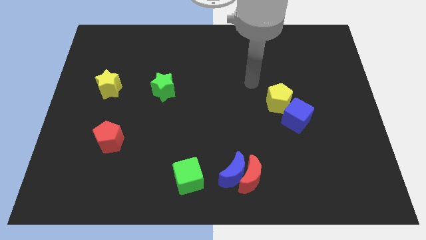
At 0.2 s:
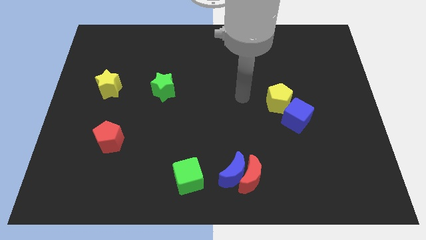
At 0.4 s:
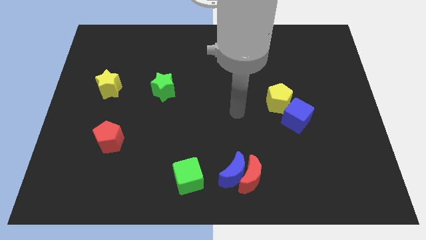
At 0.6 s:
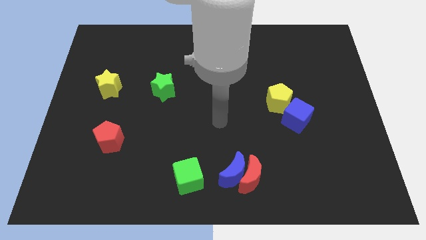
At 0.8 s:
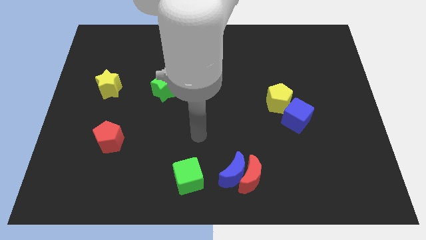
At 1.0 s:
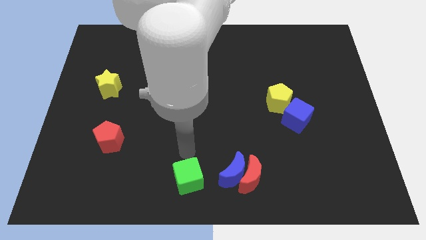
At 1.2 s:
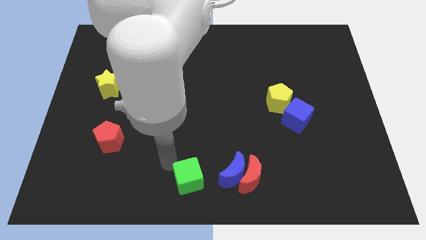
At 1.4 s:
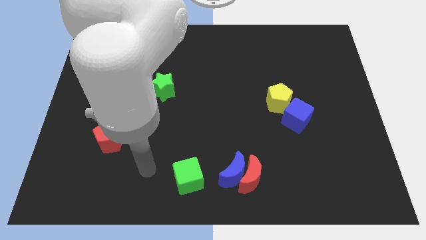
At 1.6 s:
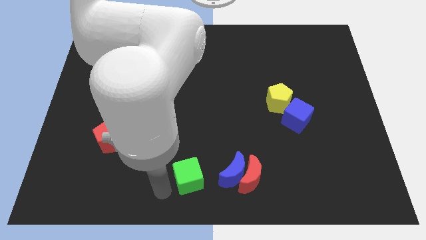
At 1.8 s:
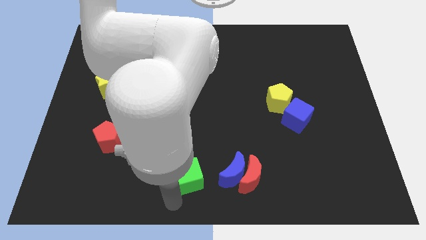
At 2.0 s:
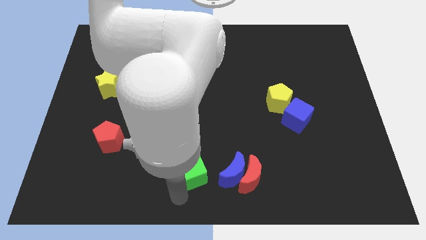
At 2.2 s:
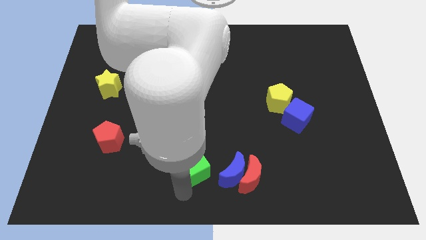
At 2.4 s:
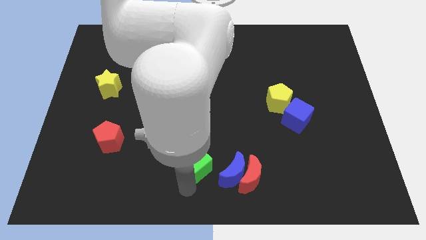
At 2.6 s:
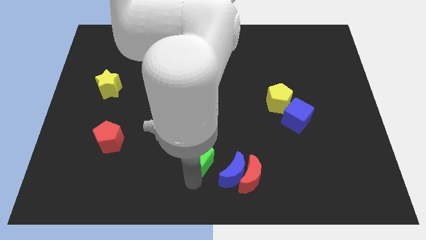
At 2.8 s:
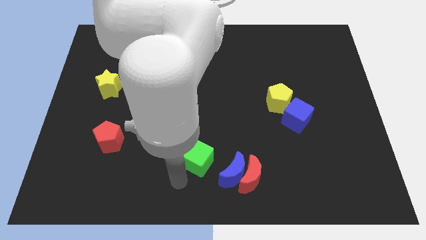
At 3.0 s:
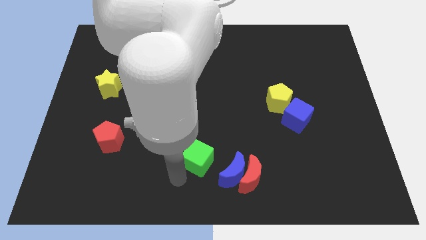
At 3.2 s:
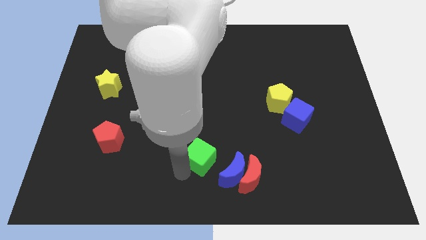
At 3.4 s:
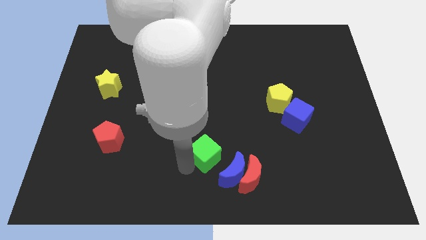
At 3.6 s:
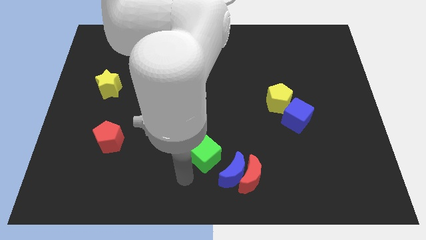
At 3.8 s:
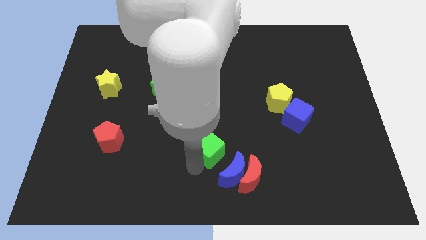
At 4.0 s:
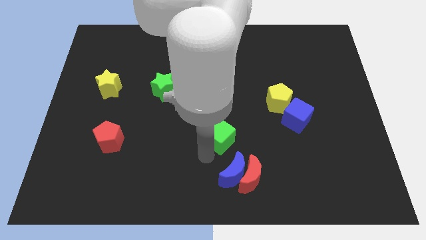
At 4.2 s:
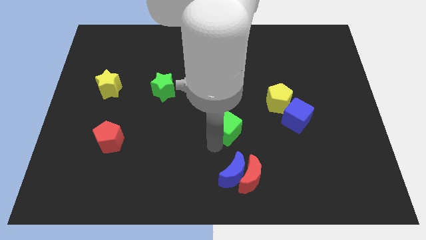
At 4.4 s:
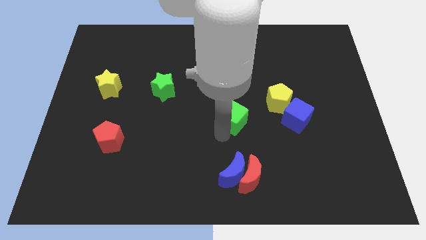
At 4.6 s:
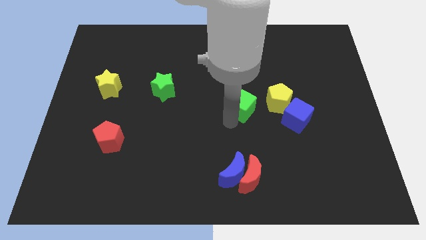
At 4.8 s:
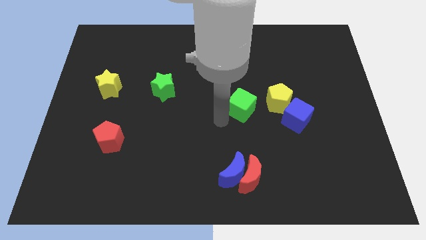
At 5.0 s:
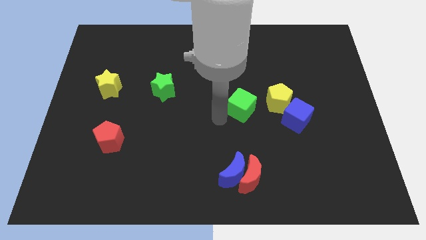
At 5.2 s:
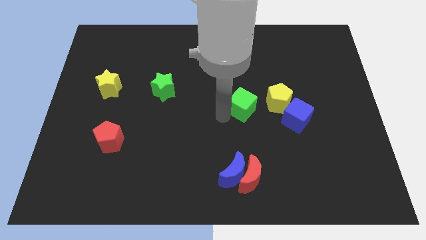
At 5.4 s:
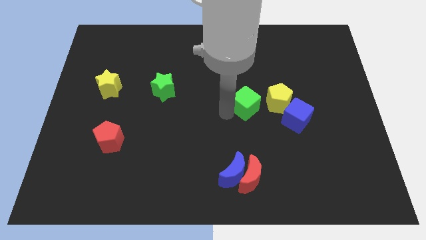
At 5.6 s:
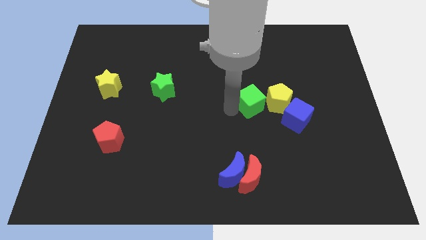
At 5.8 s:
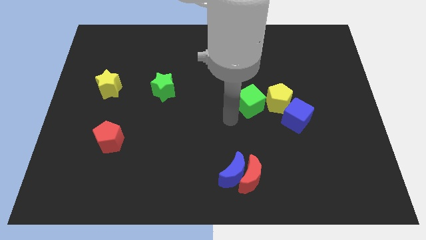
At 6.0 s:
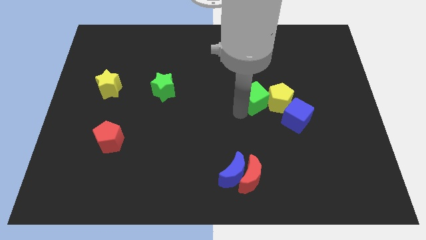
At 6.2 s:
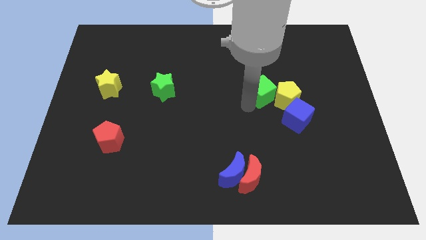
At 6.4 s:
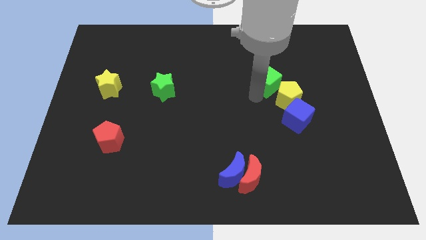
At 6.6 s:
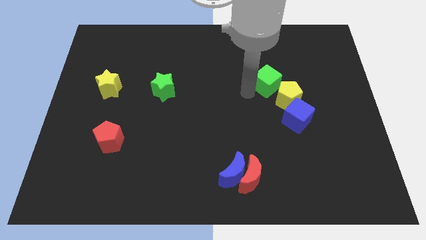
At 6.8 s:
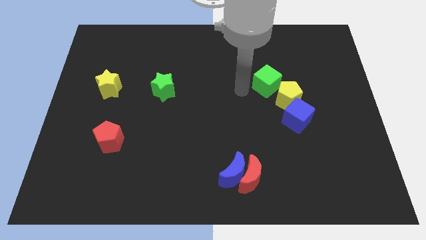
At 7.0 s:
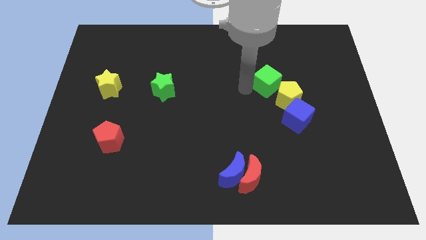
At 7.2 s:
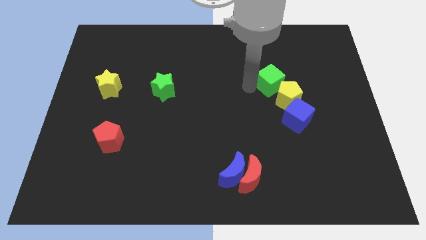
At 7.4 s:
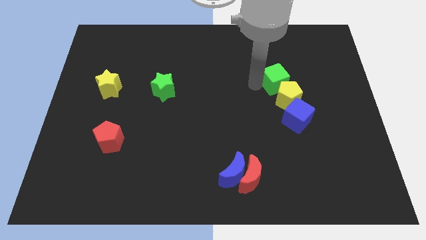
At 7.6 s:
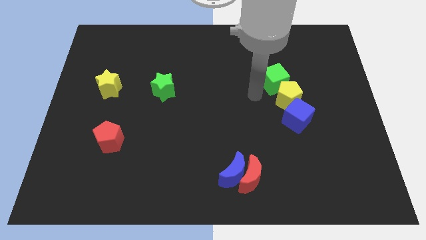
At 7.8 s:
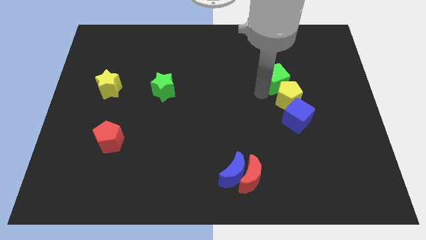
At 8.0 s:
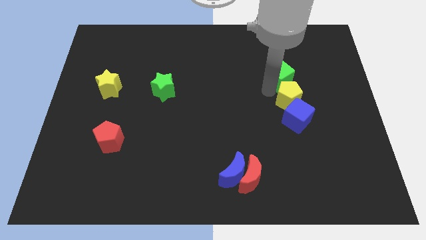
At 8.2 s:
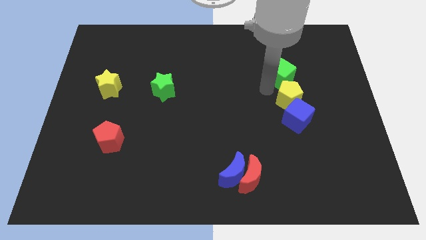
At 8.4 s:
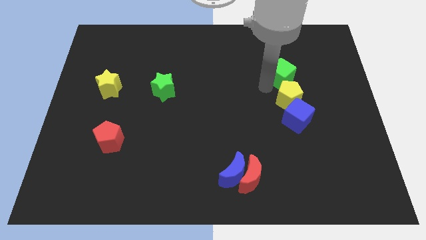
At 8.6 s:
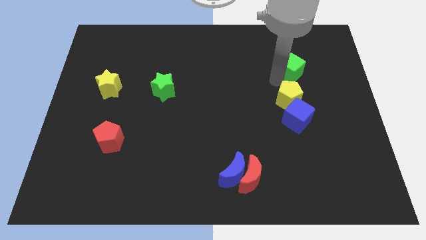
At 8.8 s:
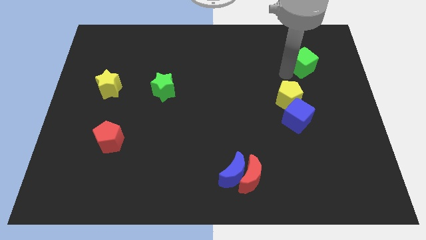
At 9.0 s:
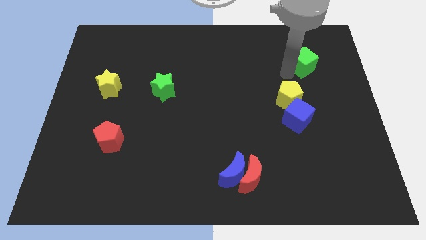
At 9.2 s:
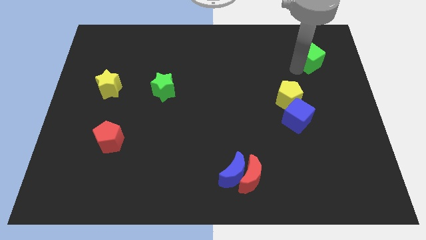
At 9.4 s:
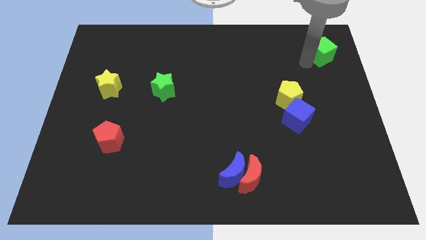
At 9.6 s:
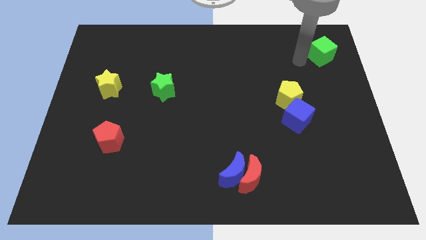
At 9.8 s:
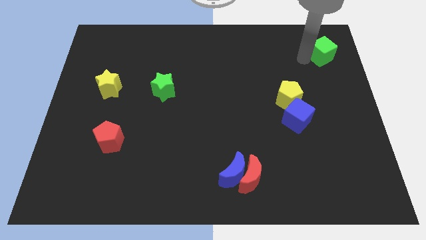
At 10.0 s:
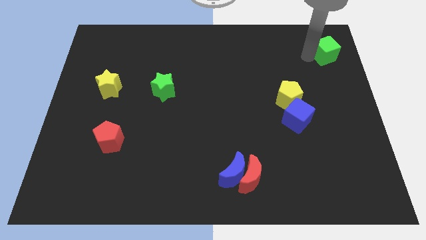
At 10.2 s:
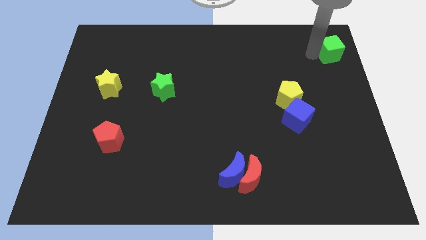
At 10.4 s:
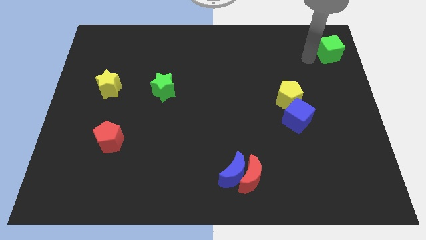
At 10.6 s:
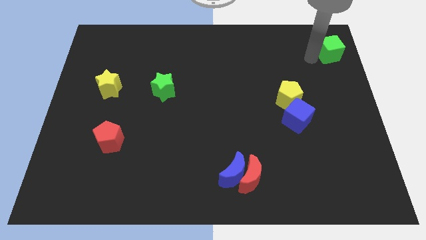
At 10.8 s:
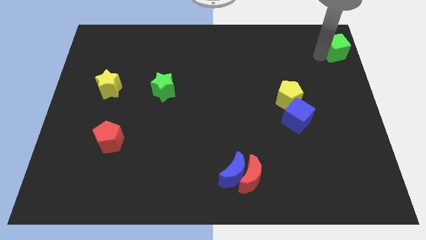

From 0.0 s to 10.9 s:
put the green cube to the top right of the board

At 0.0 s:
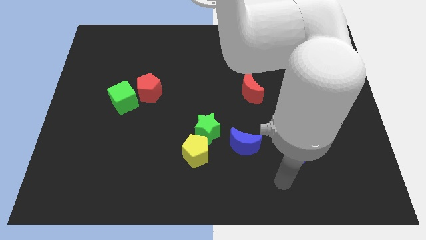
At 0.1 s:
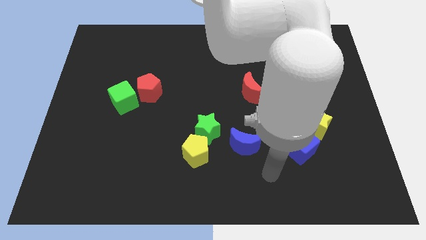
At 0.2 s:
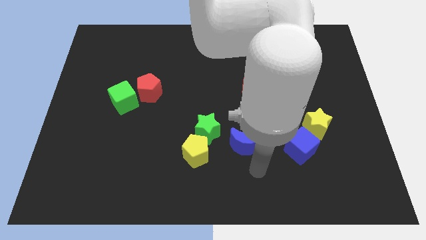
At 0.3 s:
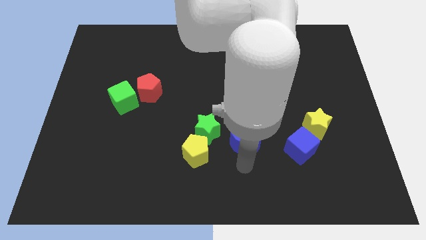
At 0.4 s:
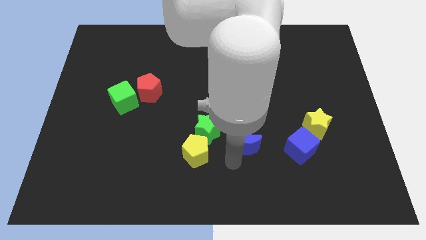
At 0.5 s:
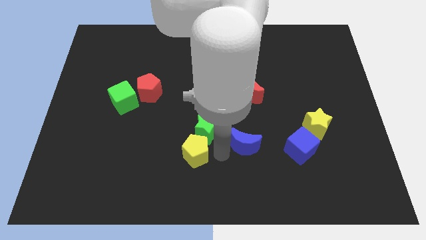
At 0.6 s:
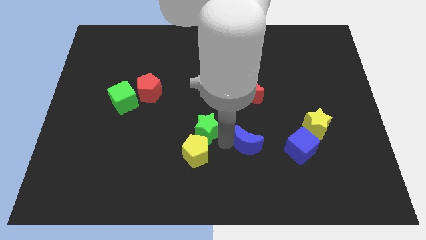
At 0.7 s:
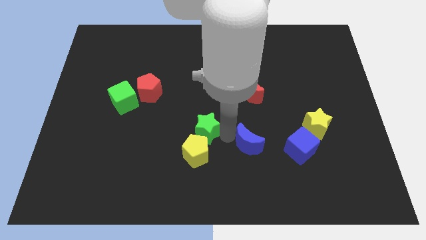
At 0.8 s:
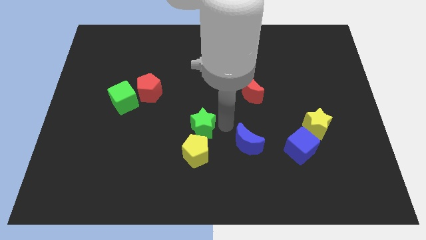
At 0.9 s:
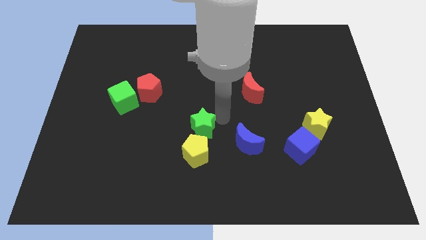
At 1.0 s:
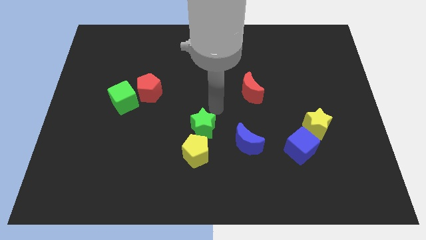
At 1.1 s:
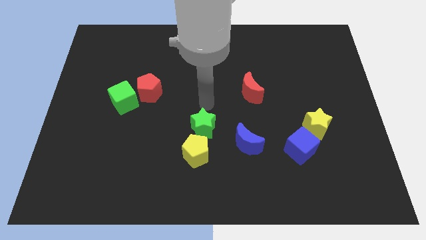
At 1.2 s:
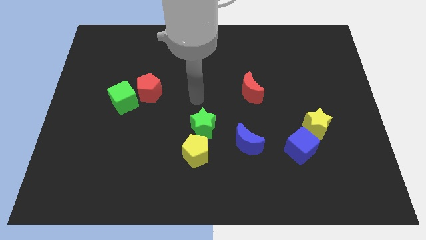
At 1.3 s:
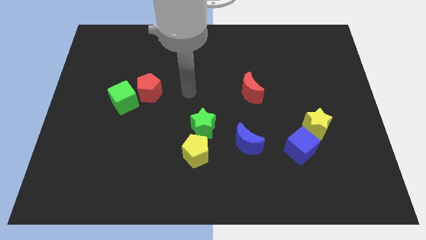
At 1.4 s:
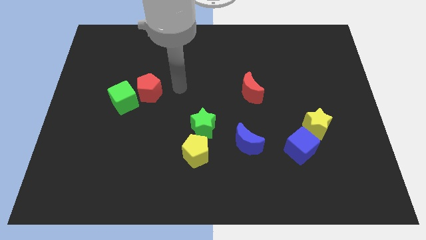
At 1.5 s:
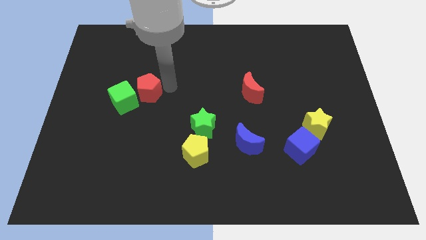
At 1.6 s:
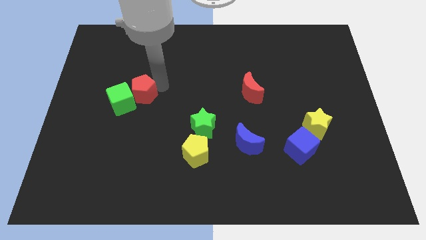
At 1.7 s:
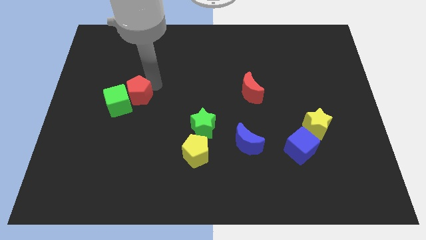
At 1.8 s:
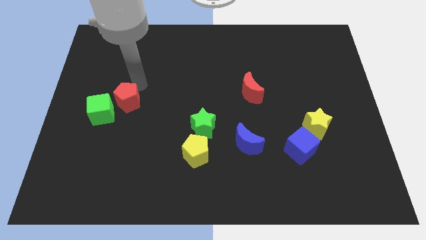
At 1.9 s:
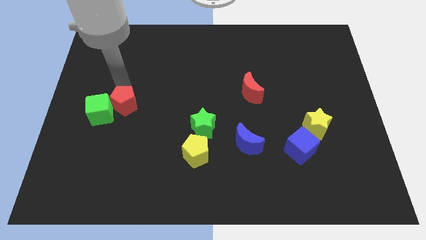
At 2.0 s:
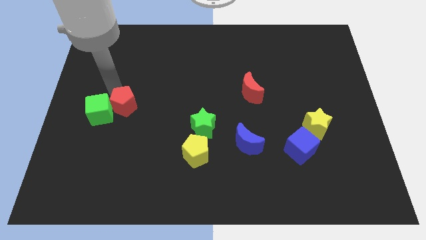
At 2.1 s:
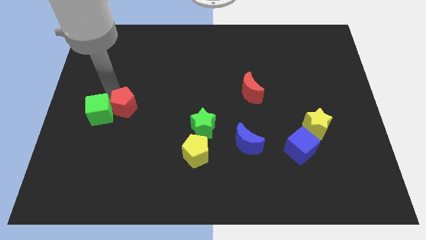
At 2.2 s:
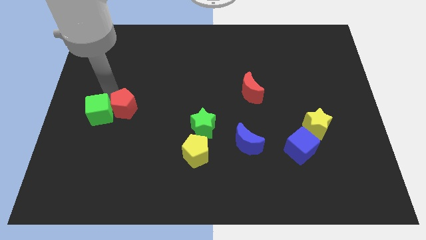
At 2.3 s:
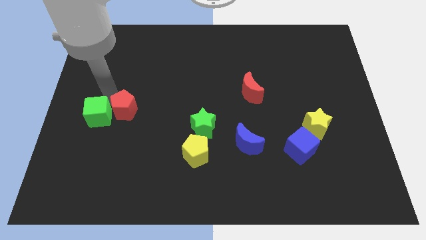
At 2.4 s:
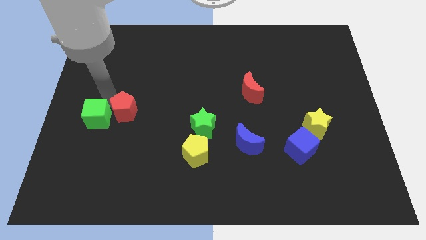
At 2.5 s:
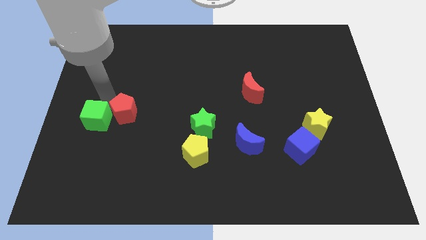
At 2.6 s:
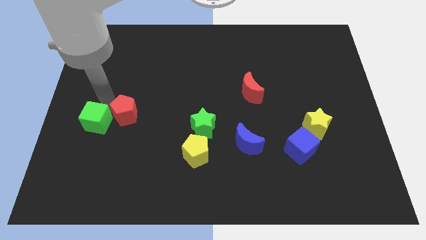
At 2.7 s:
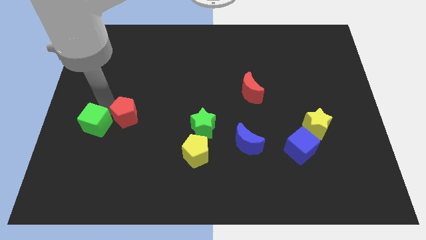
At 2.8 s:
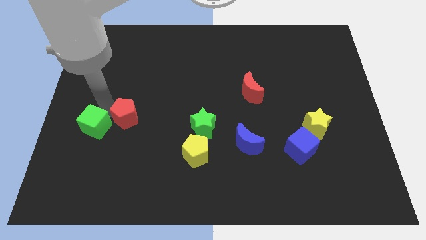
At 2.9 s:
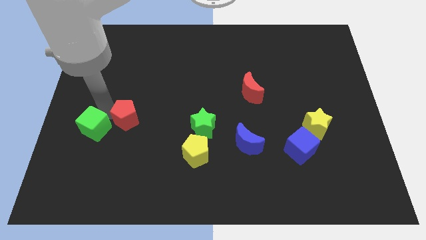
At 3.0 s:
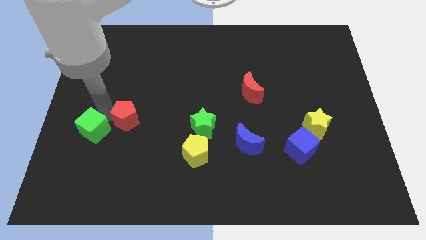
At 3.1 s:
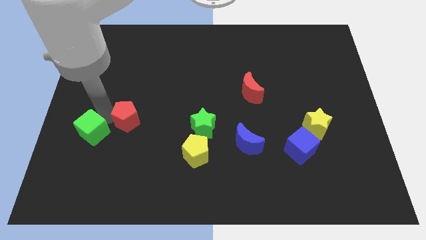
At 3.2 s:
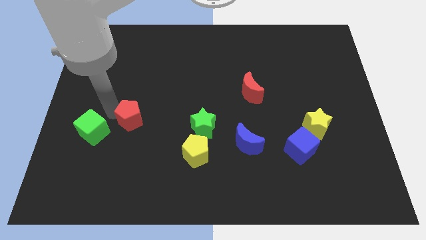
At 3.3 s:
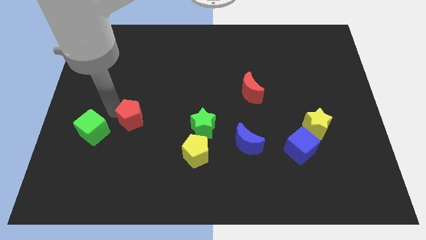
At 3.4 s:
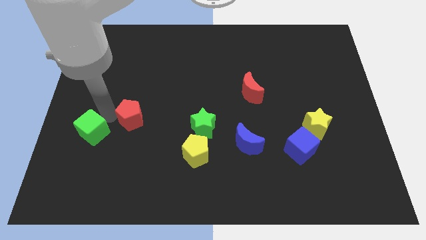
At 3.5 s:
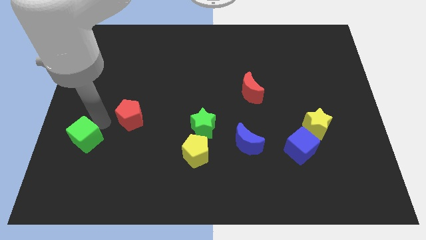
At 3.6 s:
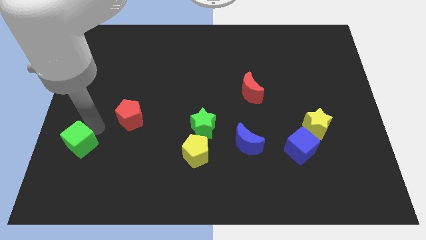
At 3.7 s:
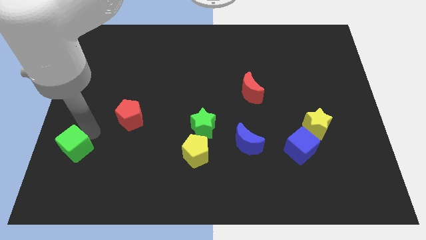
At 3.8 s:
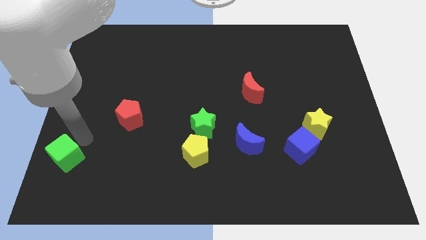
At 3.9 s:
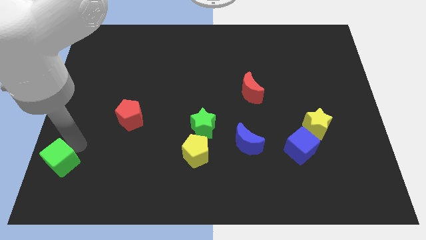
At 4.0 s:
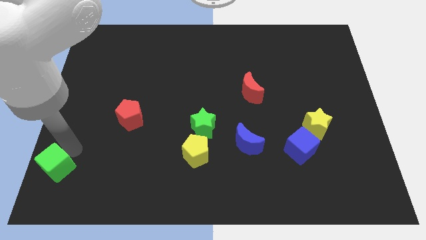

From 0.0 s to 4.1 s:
put the green cube to the bottom left of the board
